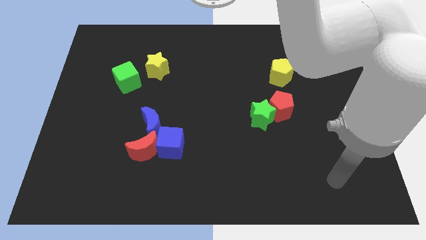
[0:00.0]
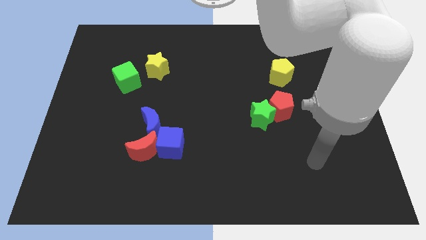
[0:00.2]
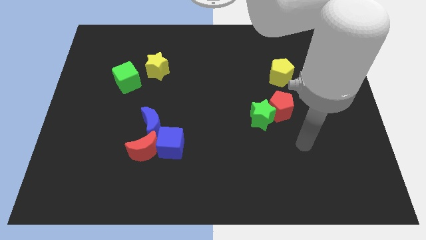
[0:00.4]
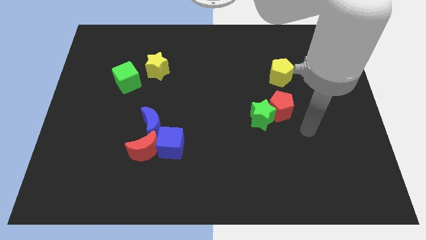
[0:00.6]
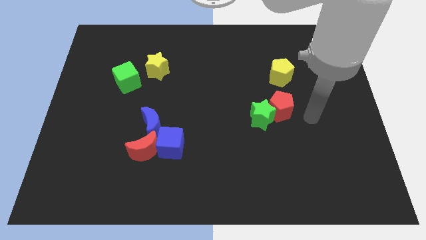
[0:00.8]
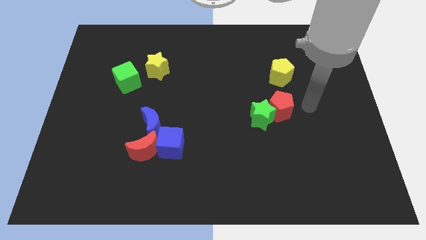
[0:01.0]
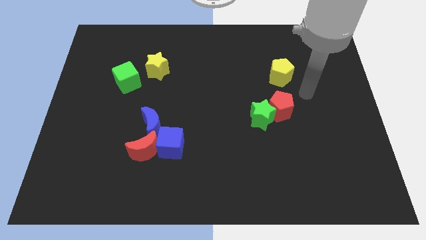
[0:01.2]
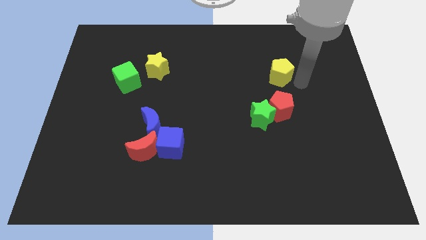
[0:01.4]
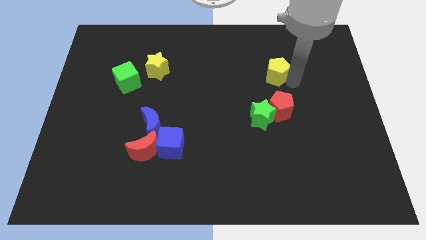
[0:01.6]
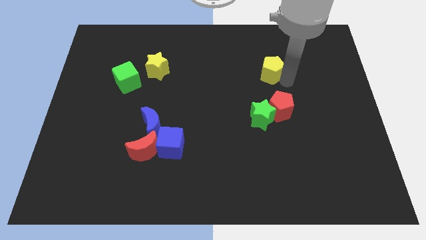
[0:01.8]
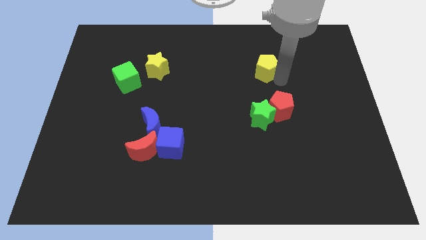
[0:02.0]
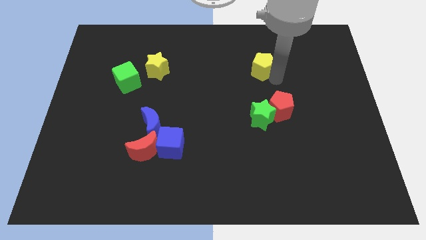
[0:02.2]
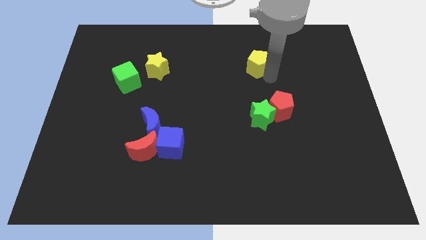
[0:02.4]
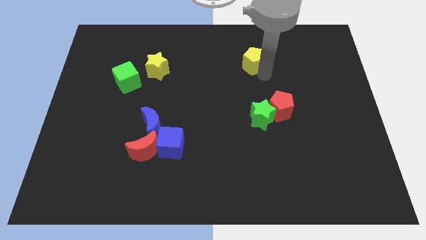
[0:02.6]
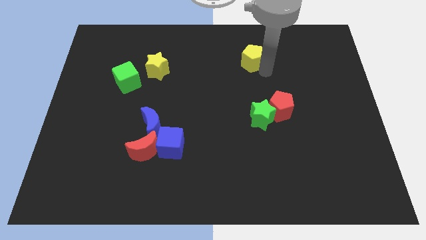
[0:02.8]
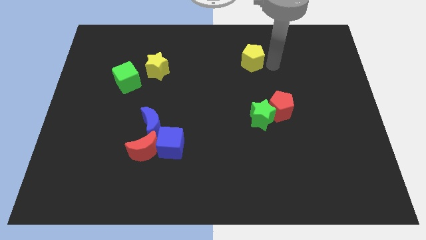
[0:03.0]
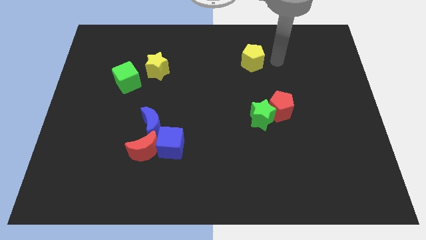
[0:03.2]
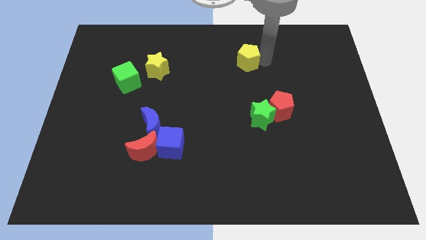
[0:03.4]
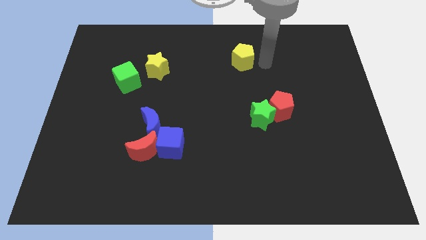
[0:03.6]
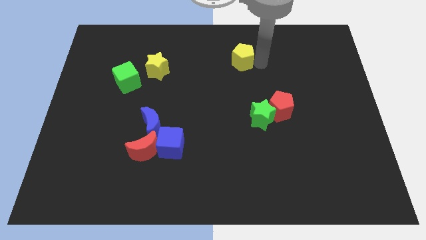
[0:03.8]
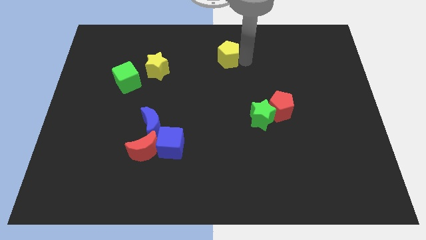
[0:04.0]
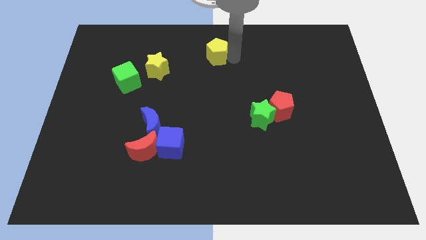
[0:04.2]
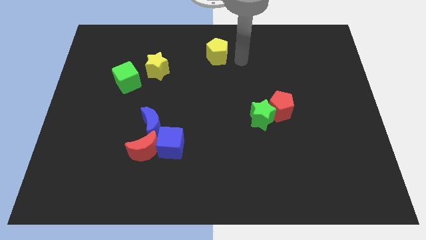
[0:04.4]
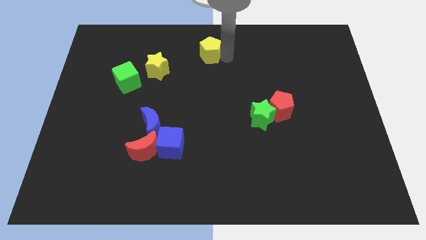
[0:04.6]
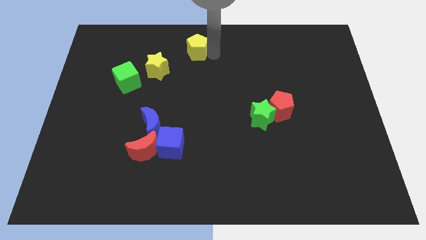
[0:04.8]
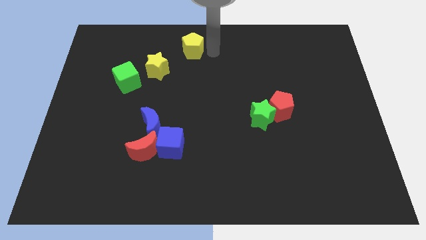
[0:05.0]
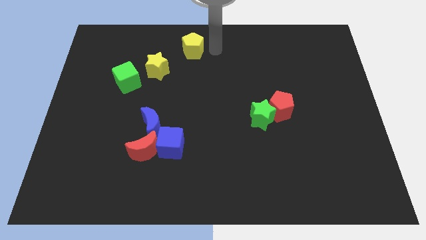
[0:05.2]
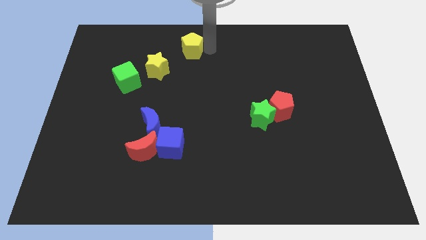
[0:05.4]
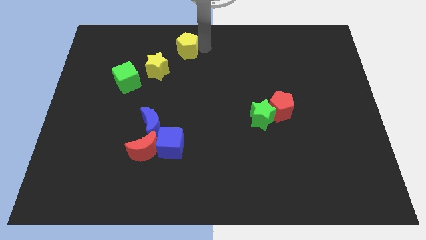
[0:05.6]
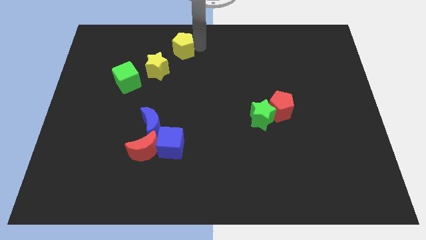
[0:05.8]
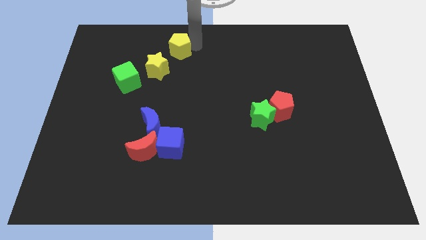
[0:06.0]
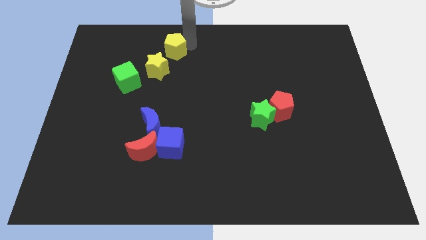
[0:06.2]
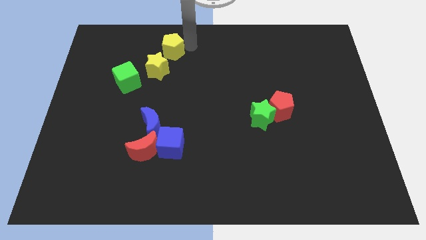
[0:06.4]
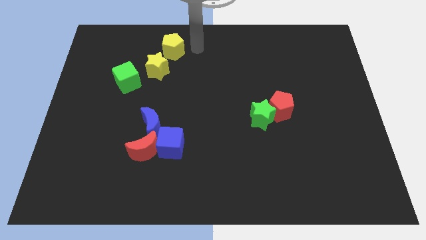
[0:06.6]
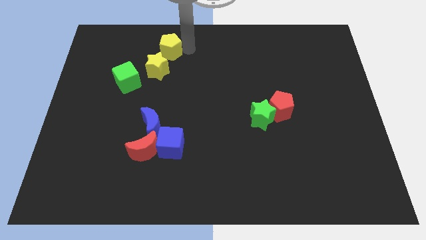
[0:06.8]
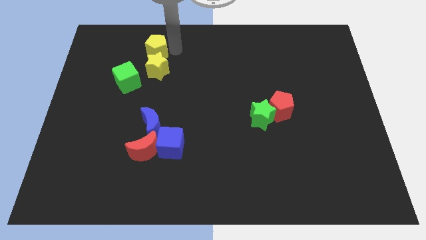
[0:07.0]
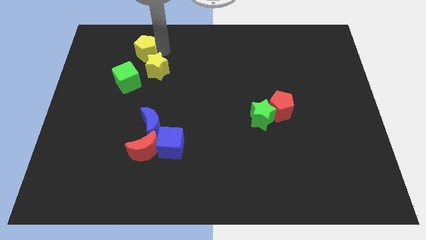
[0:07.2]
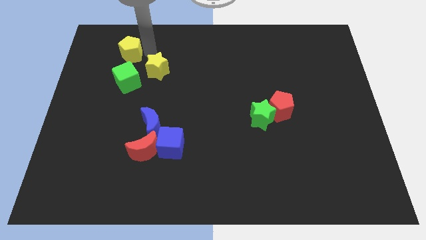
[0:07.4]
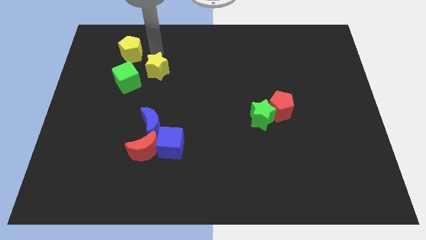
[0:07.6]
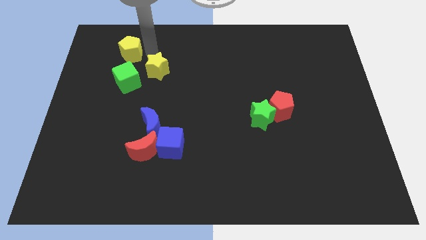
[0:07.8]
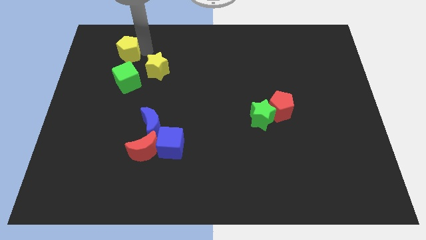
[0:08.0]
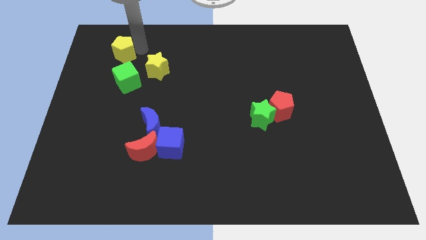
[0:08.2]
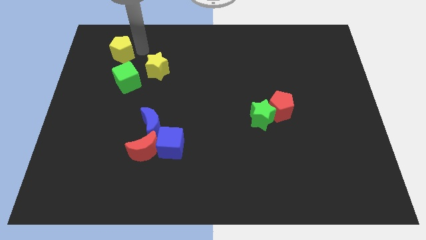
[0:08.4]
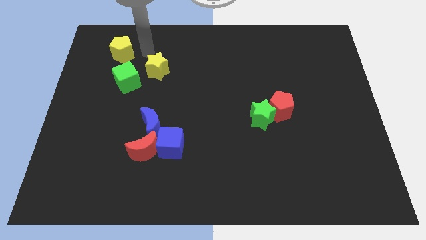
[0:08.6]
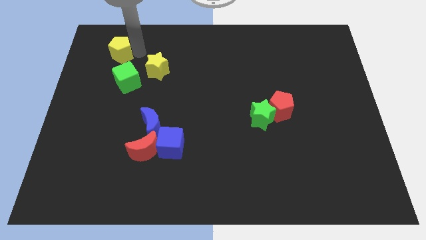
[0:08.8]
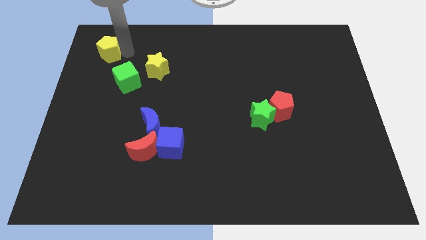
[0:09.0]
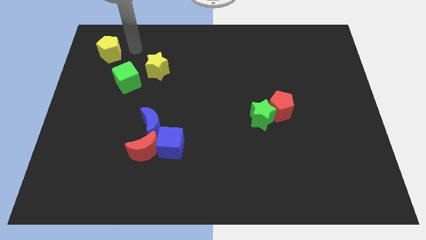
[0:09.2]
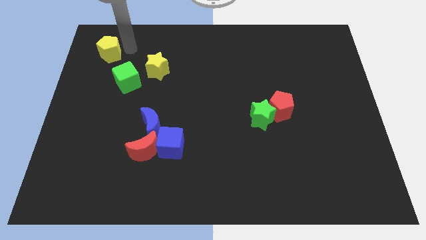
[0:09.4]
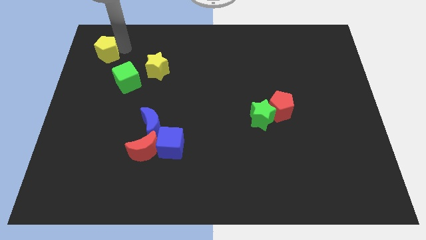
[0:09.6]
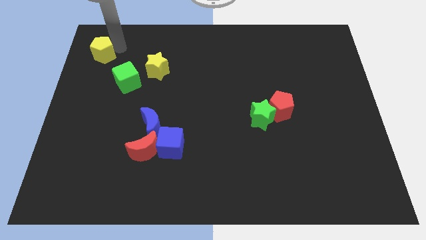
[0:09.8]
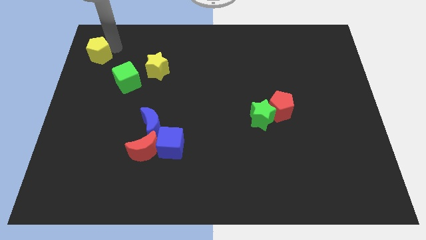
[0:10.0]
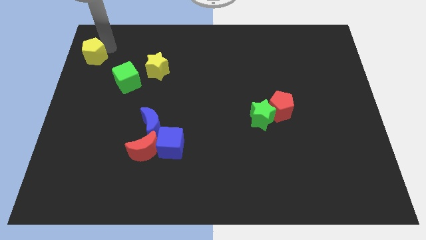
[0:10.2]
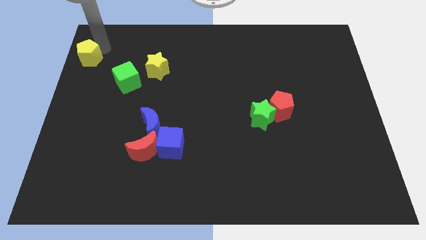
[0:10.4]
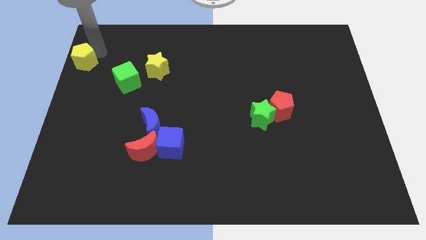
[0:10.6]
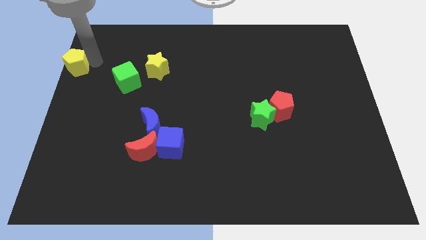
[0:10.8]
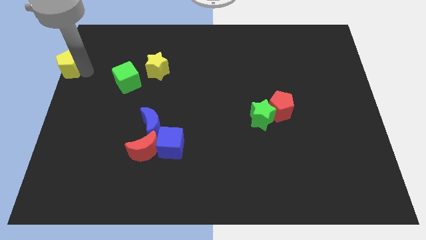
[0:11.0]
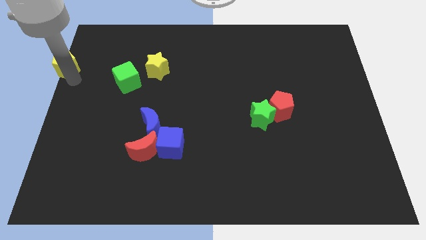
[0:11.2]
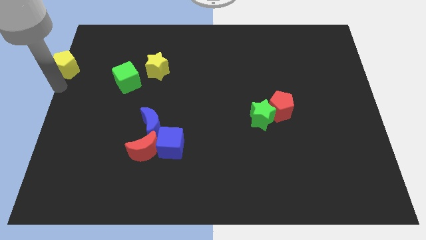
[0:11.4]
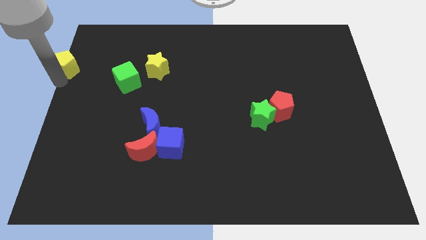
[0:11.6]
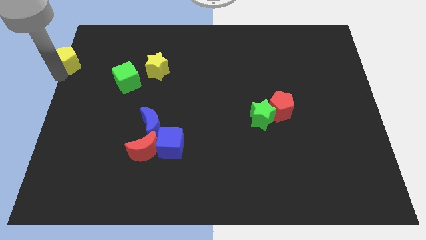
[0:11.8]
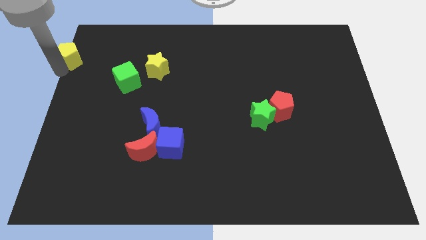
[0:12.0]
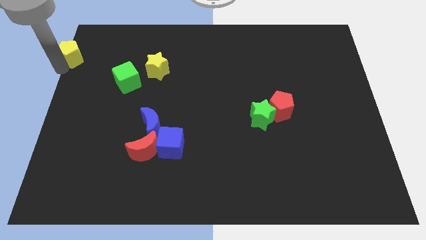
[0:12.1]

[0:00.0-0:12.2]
put the yellow pentagon to the top left of the board
